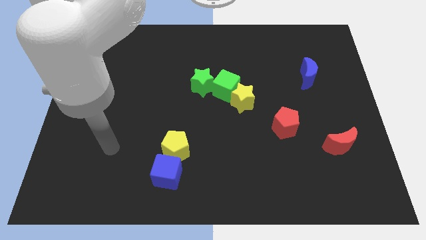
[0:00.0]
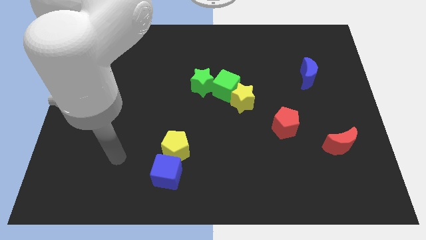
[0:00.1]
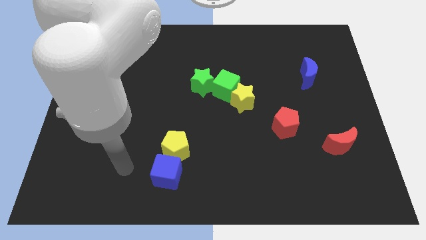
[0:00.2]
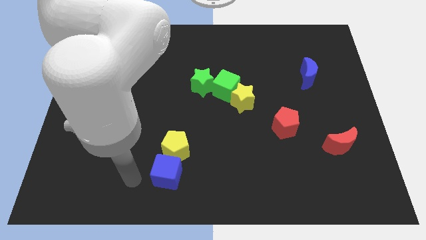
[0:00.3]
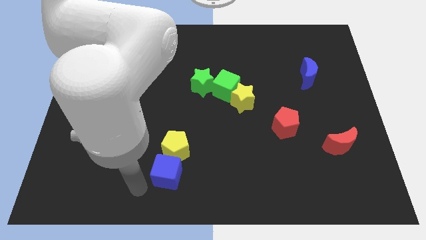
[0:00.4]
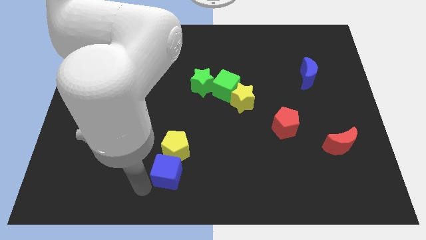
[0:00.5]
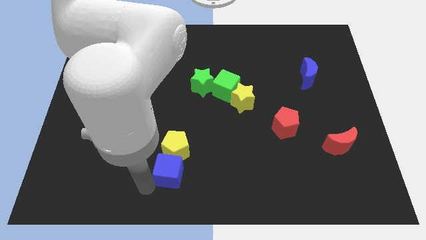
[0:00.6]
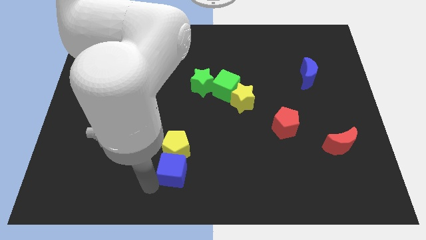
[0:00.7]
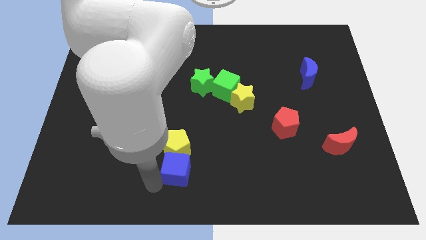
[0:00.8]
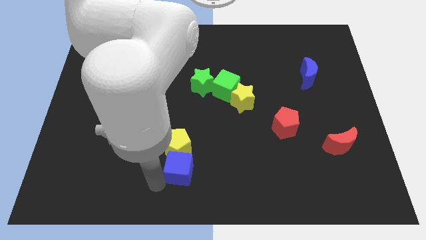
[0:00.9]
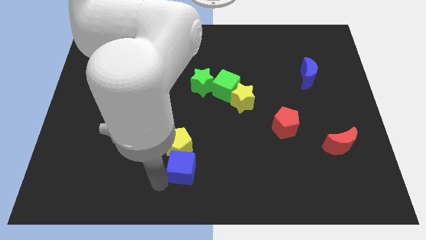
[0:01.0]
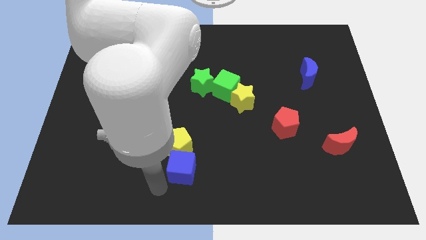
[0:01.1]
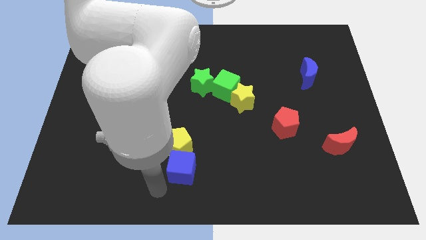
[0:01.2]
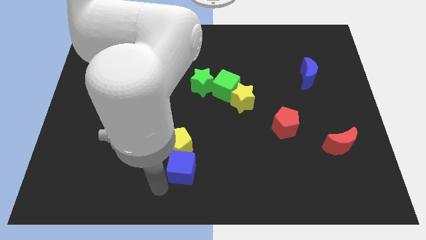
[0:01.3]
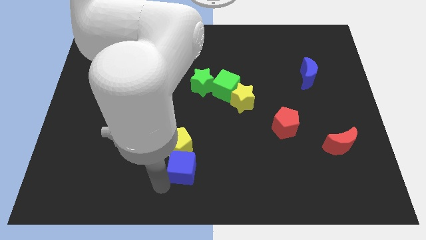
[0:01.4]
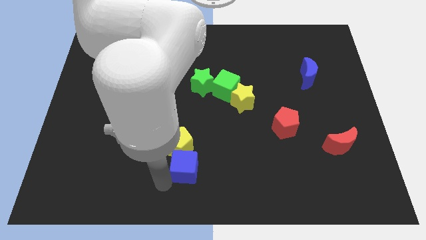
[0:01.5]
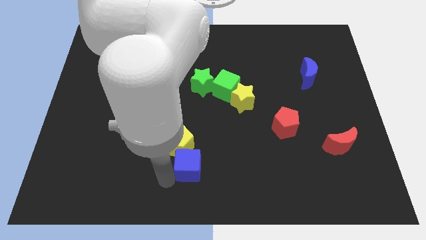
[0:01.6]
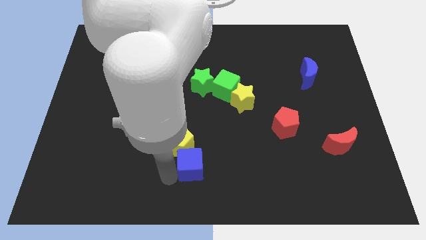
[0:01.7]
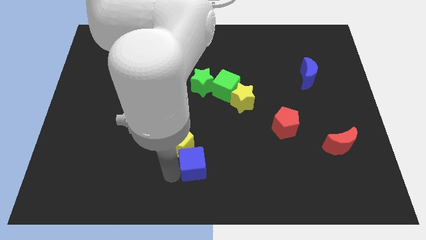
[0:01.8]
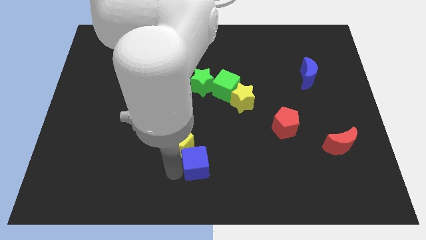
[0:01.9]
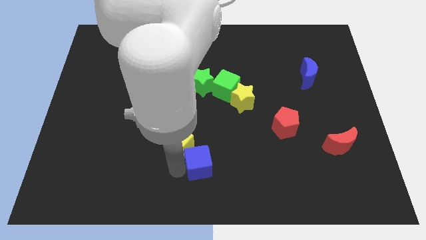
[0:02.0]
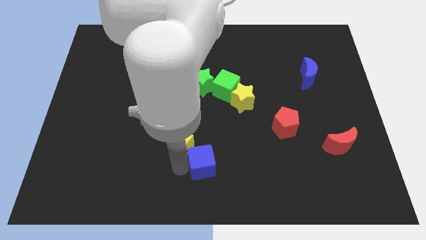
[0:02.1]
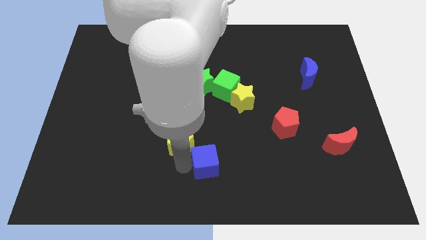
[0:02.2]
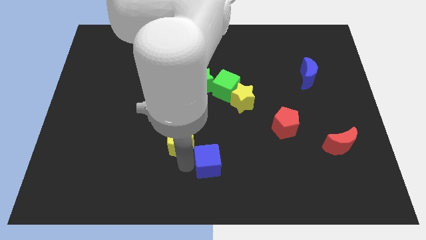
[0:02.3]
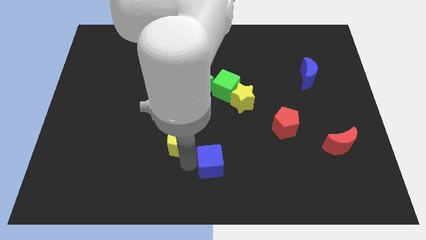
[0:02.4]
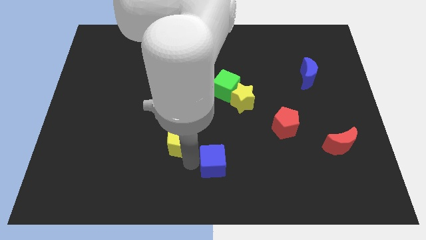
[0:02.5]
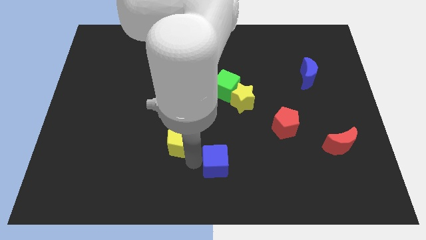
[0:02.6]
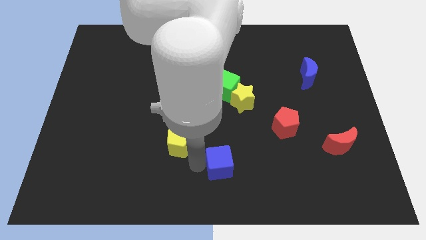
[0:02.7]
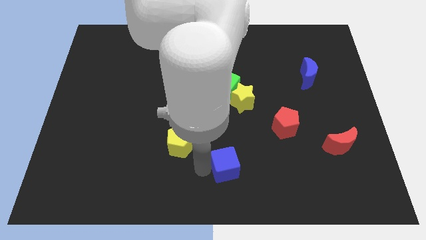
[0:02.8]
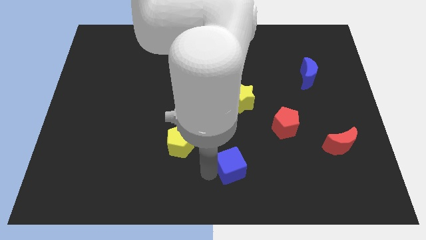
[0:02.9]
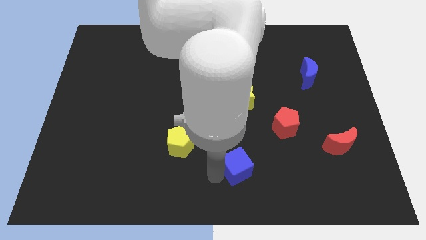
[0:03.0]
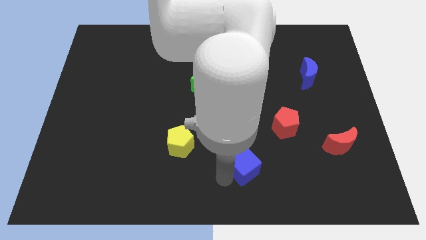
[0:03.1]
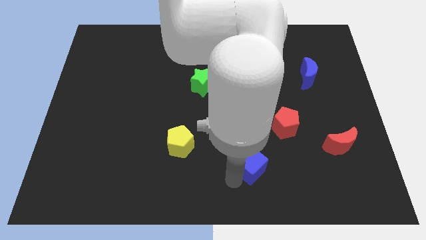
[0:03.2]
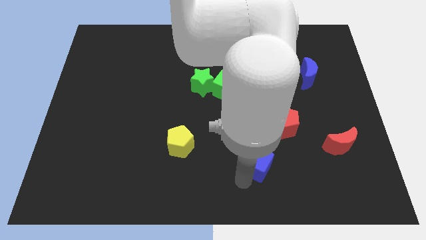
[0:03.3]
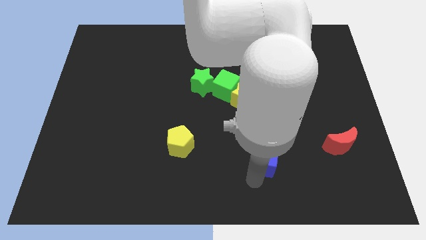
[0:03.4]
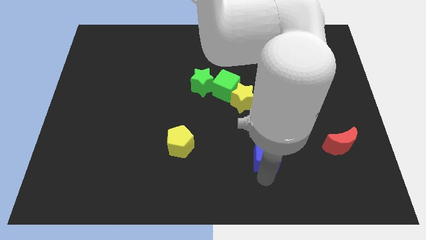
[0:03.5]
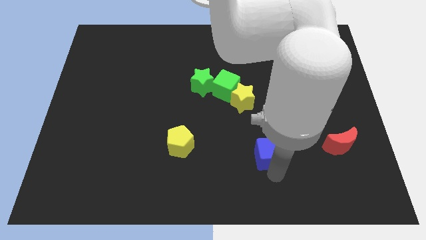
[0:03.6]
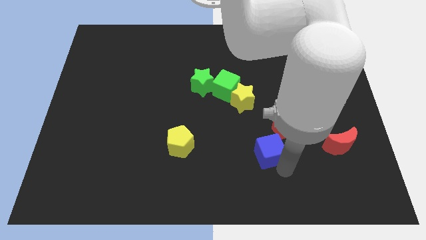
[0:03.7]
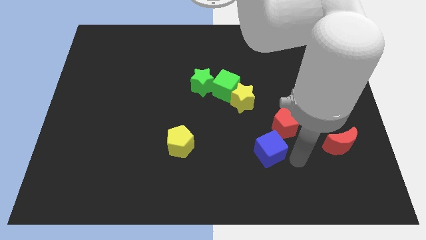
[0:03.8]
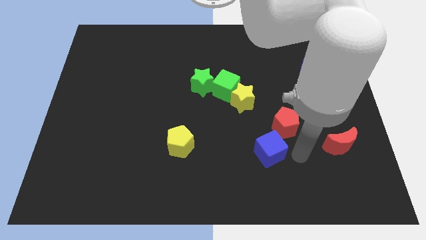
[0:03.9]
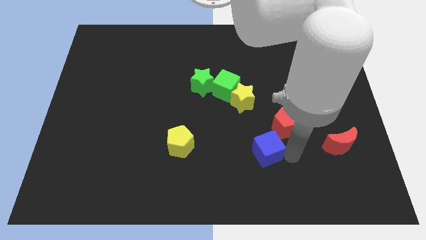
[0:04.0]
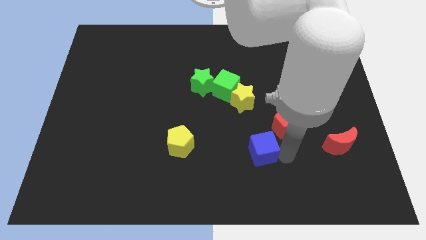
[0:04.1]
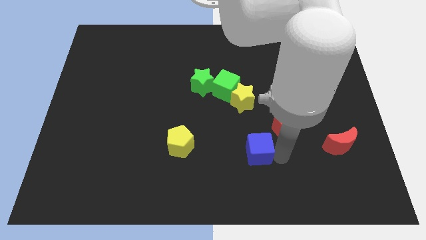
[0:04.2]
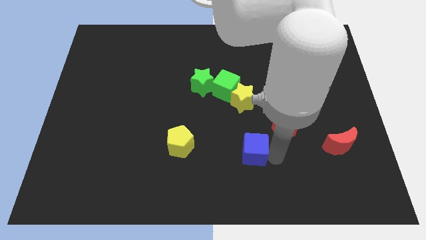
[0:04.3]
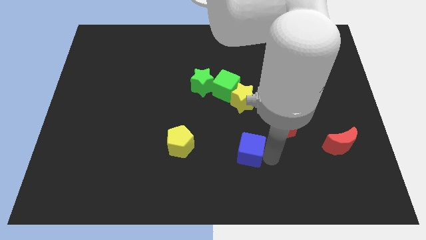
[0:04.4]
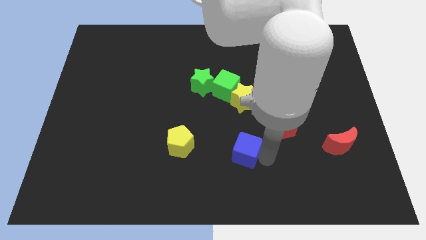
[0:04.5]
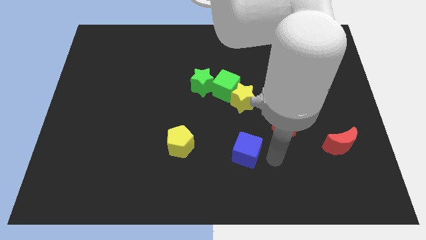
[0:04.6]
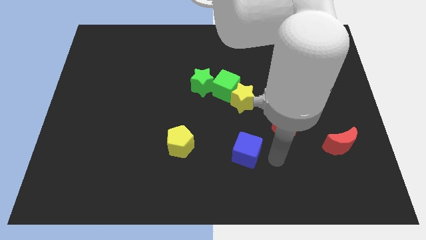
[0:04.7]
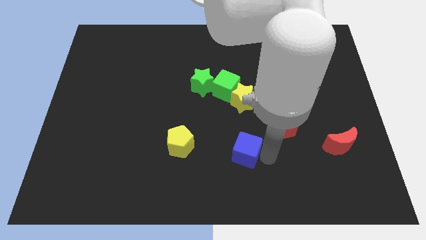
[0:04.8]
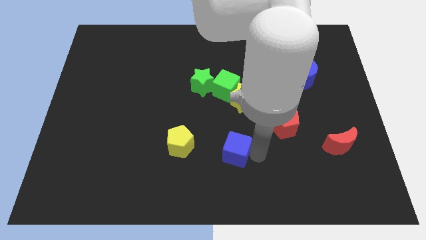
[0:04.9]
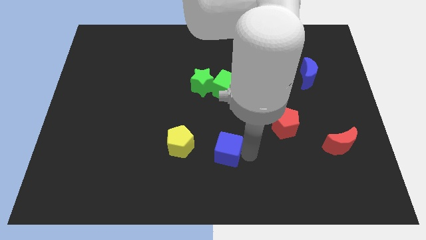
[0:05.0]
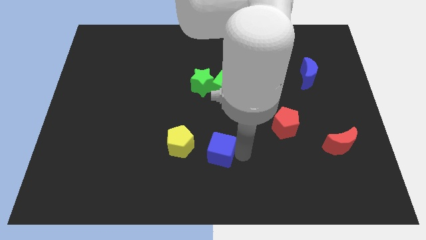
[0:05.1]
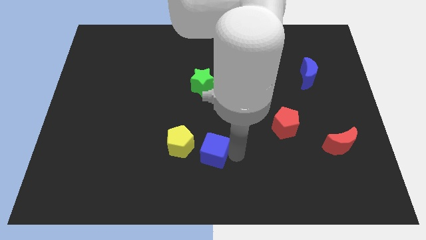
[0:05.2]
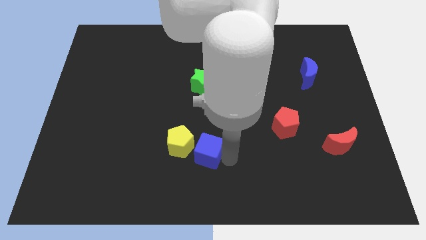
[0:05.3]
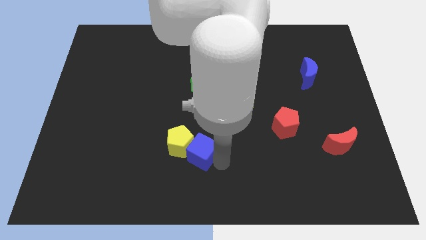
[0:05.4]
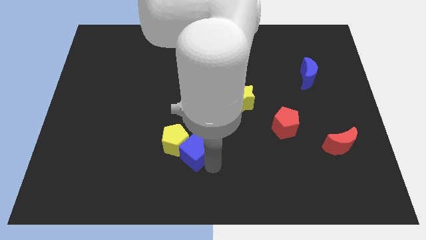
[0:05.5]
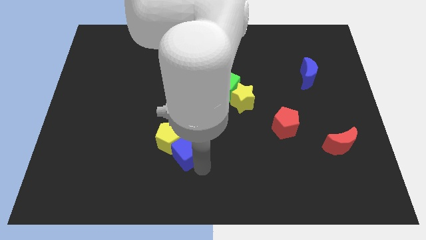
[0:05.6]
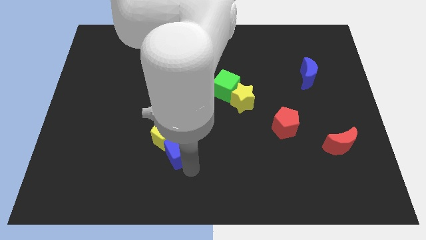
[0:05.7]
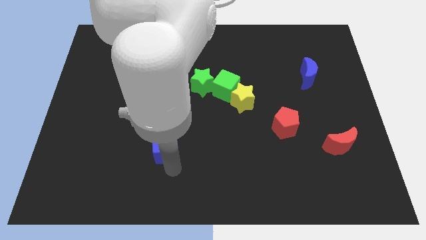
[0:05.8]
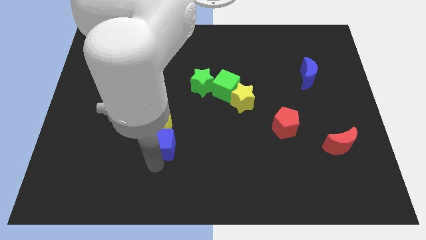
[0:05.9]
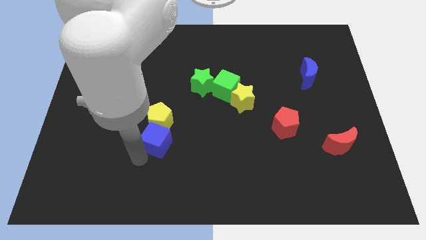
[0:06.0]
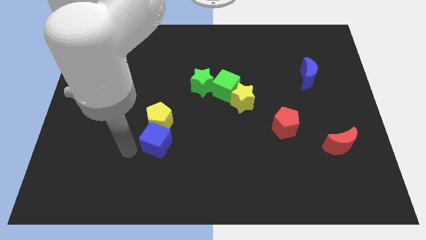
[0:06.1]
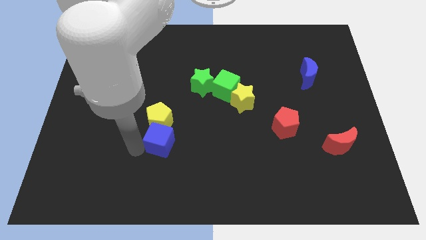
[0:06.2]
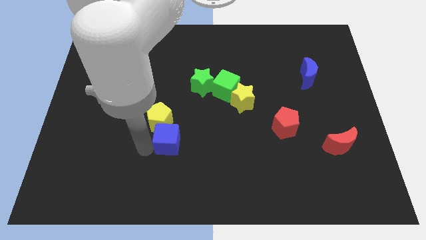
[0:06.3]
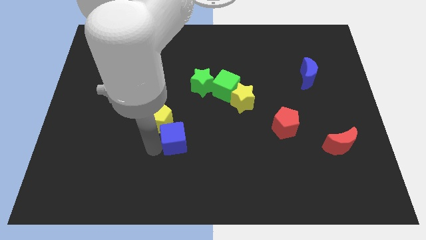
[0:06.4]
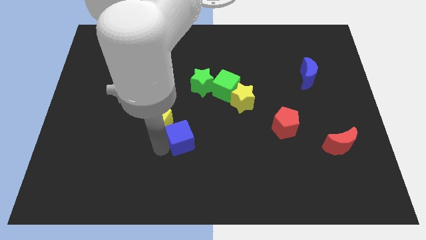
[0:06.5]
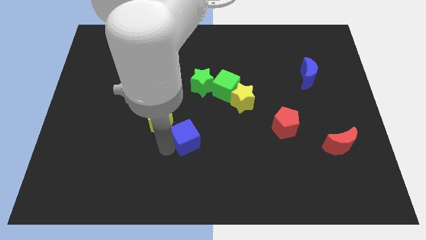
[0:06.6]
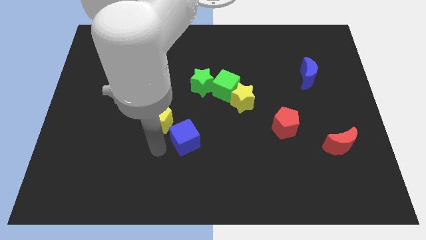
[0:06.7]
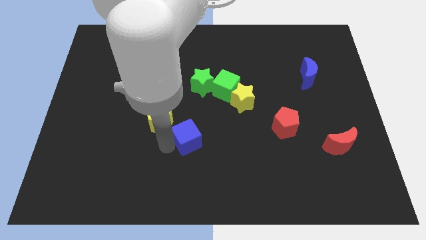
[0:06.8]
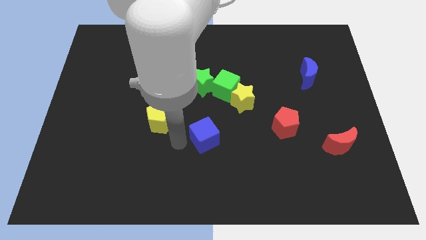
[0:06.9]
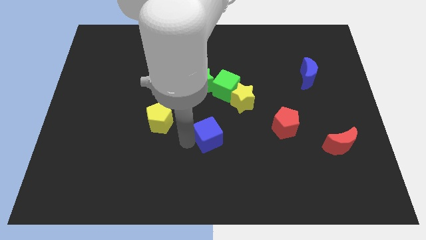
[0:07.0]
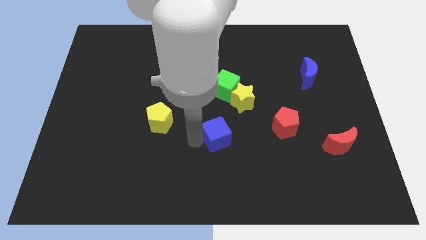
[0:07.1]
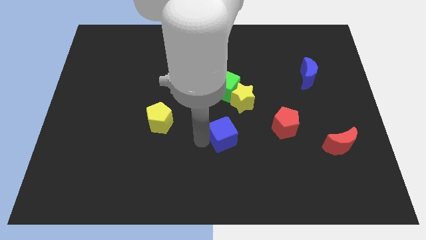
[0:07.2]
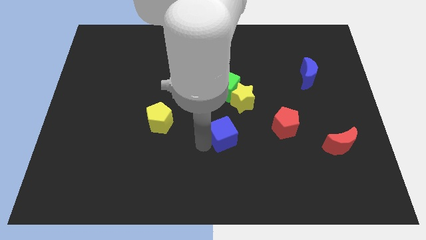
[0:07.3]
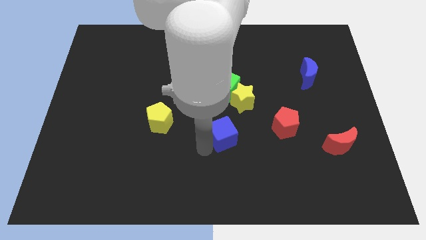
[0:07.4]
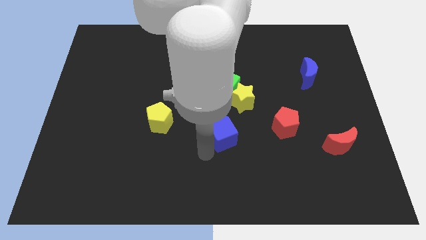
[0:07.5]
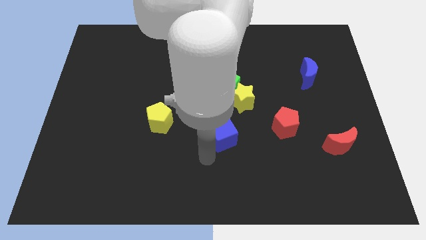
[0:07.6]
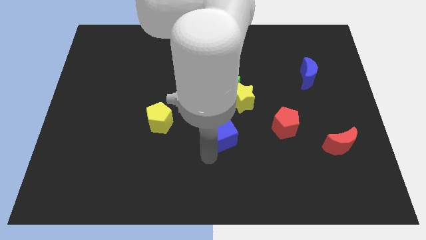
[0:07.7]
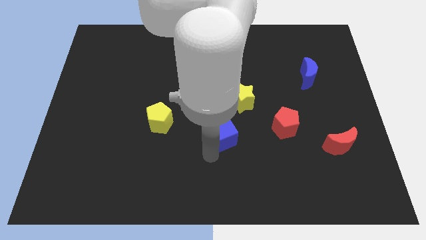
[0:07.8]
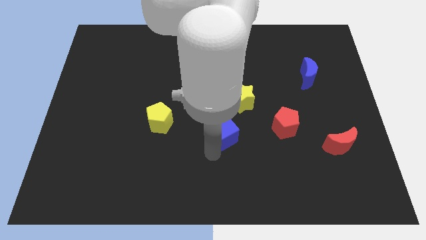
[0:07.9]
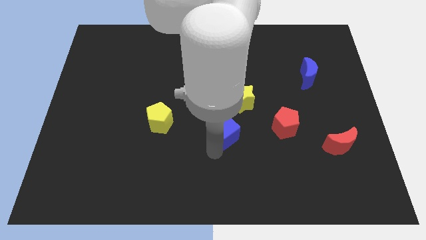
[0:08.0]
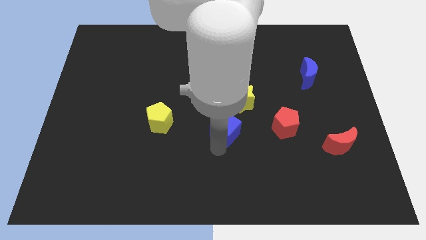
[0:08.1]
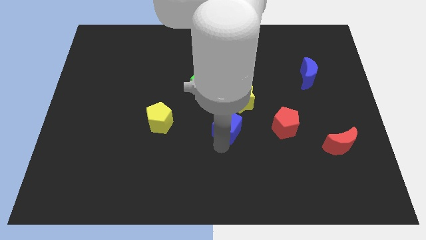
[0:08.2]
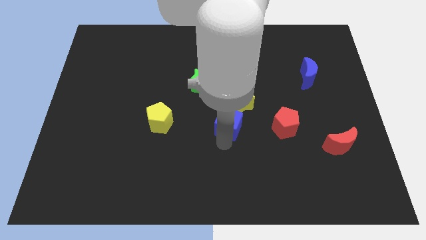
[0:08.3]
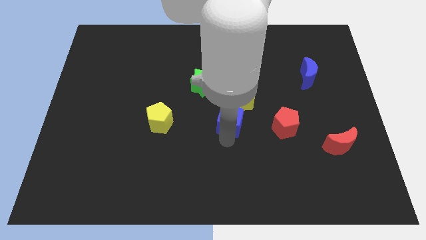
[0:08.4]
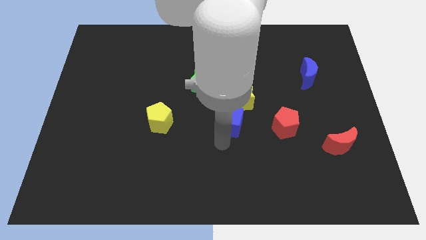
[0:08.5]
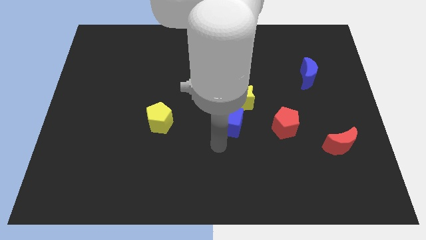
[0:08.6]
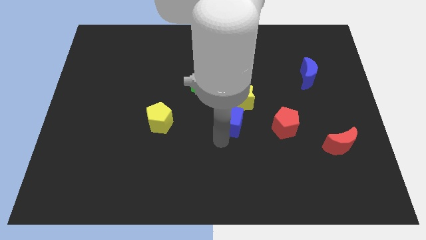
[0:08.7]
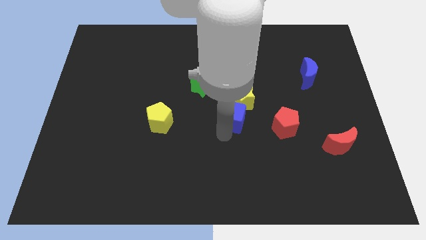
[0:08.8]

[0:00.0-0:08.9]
slide the blue cube next to the yellow star
